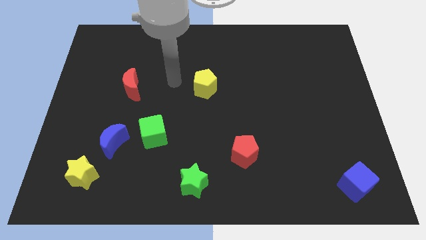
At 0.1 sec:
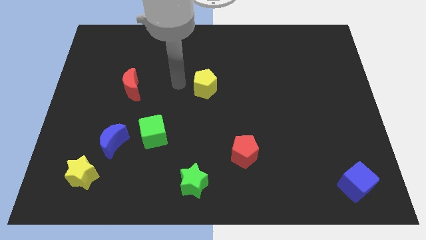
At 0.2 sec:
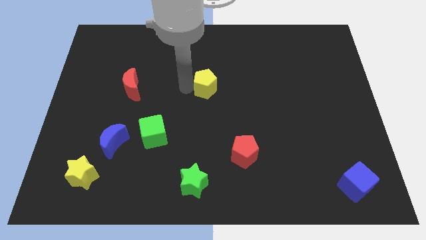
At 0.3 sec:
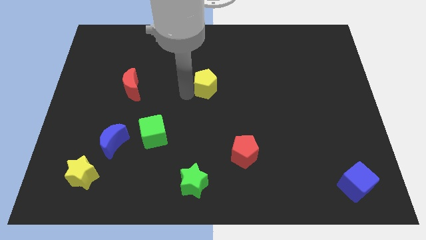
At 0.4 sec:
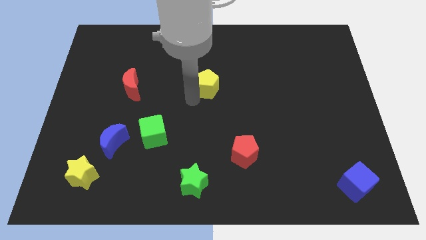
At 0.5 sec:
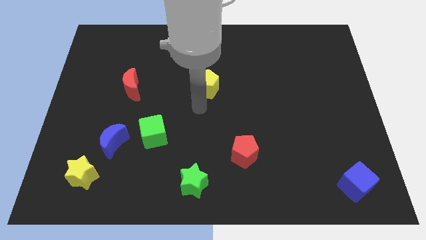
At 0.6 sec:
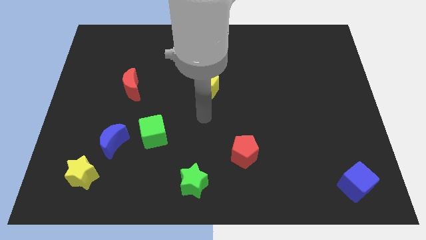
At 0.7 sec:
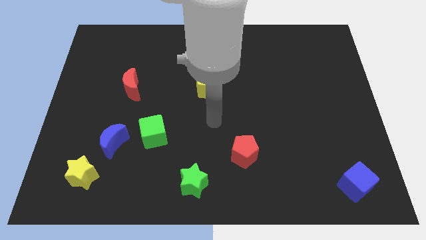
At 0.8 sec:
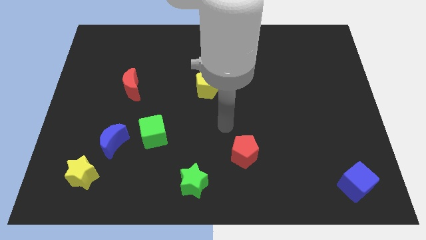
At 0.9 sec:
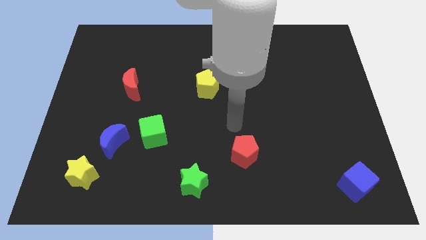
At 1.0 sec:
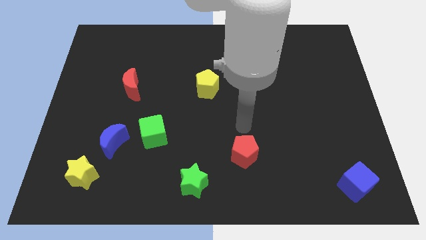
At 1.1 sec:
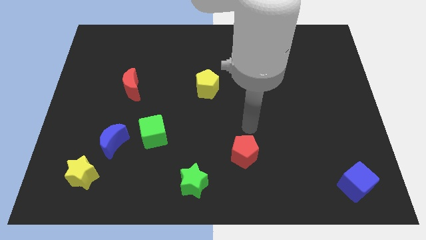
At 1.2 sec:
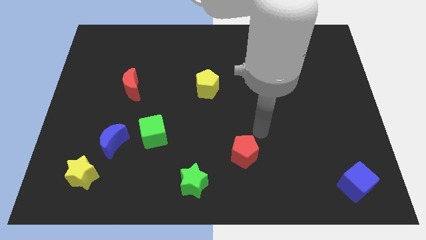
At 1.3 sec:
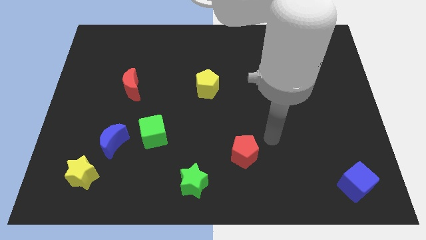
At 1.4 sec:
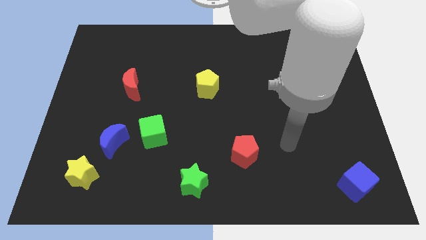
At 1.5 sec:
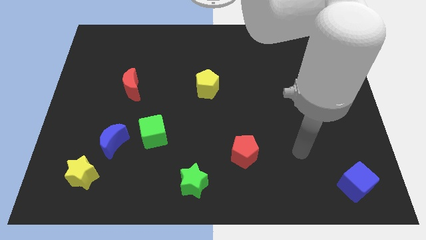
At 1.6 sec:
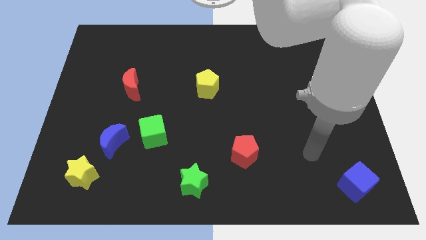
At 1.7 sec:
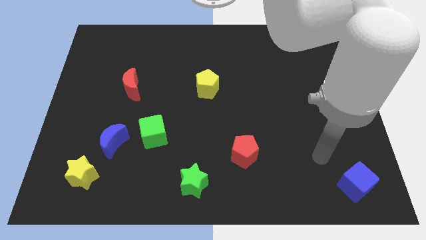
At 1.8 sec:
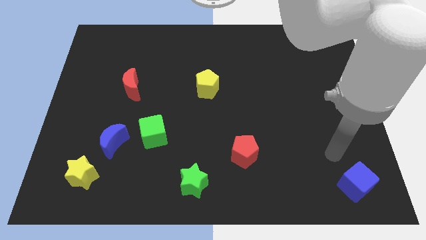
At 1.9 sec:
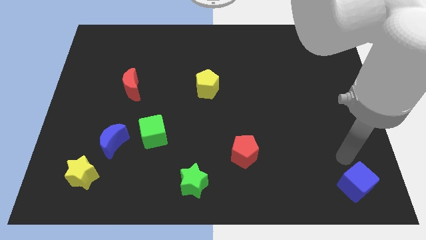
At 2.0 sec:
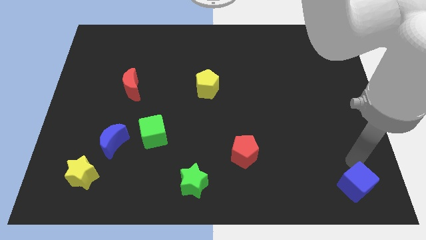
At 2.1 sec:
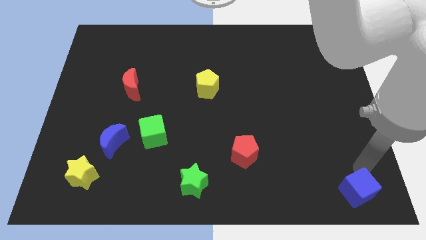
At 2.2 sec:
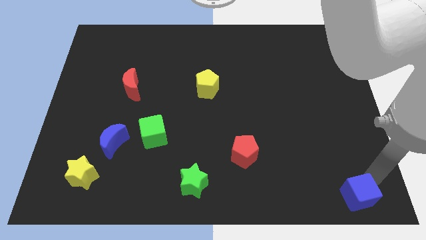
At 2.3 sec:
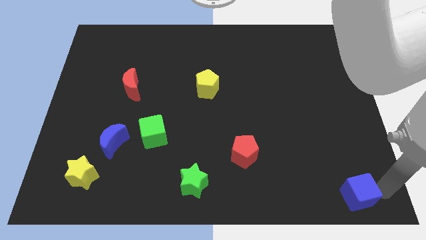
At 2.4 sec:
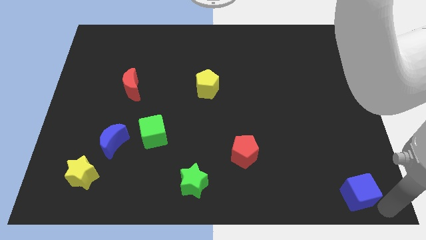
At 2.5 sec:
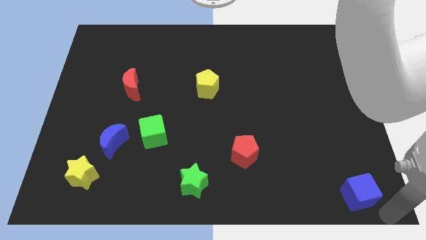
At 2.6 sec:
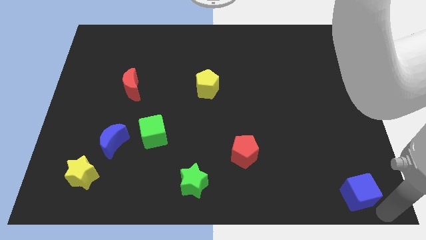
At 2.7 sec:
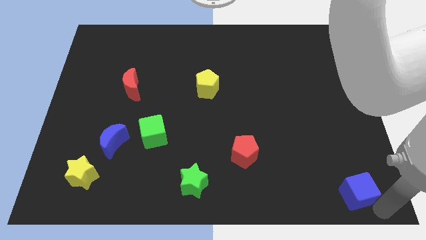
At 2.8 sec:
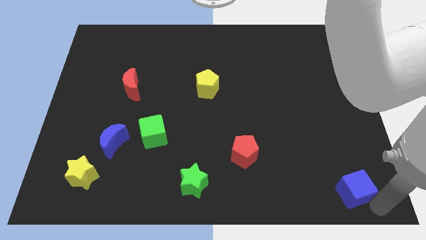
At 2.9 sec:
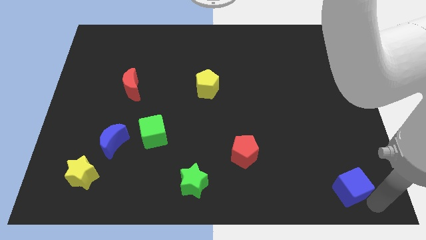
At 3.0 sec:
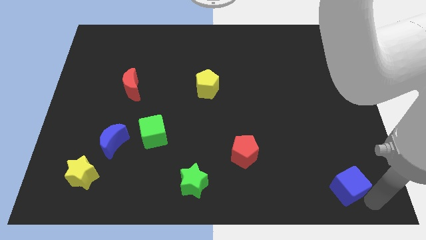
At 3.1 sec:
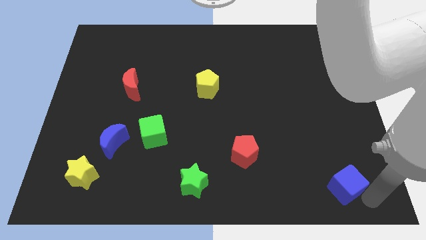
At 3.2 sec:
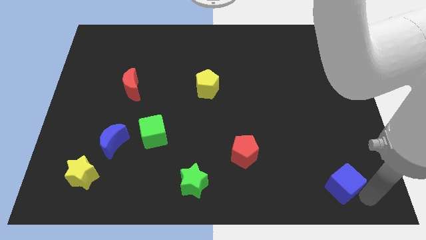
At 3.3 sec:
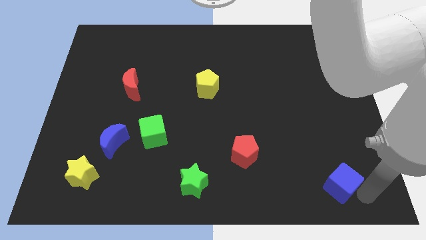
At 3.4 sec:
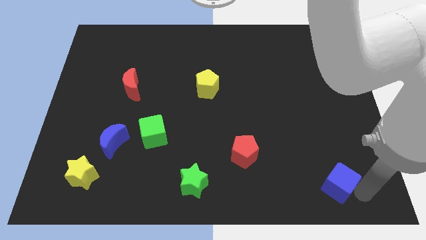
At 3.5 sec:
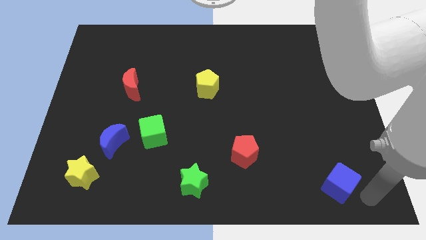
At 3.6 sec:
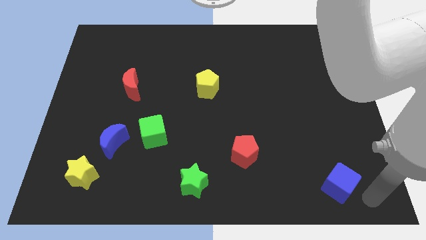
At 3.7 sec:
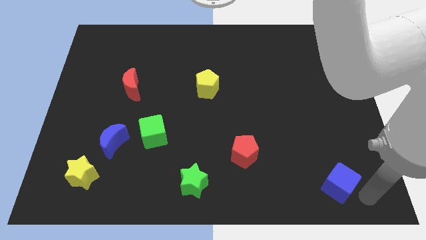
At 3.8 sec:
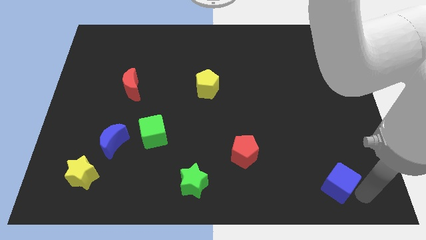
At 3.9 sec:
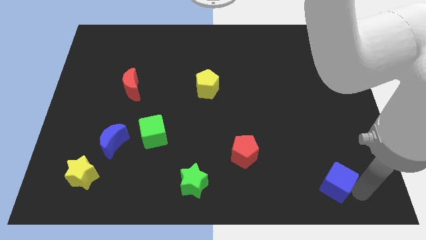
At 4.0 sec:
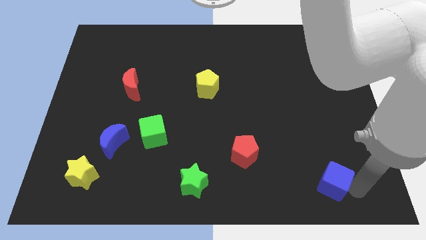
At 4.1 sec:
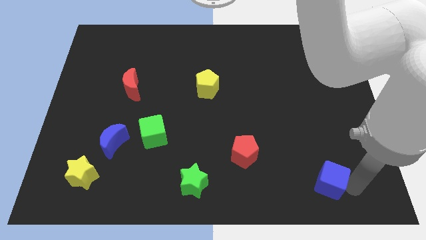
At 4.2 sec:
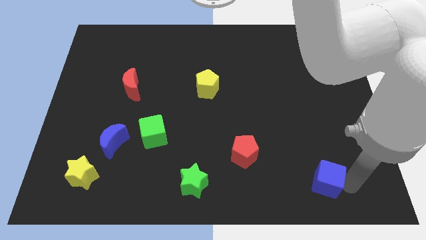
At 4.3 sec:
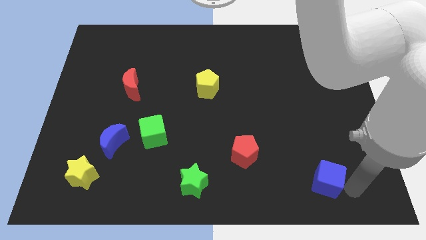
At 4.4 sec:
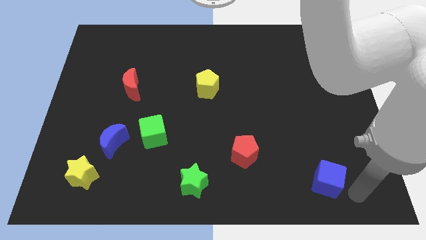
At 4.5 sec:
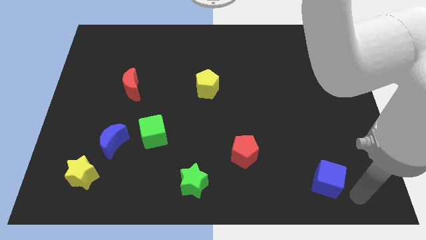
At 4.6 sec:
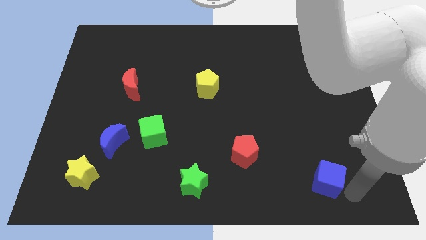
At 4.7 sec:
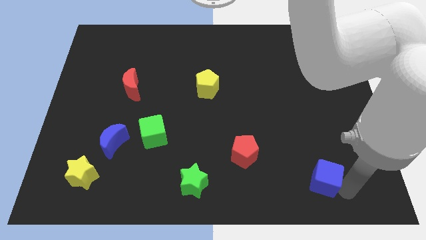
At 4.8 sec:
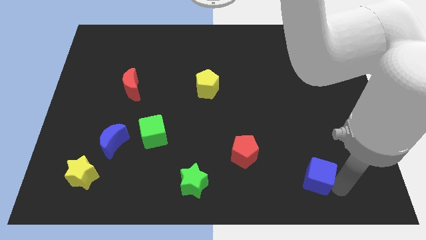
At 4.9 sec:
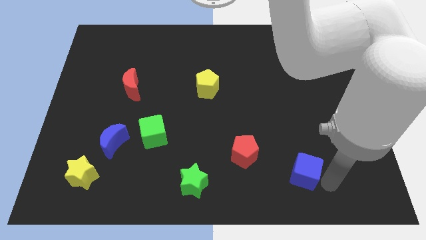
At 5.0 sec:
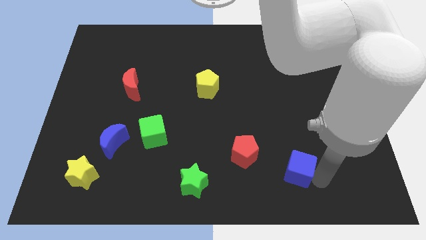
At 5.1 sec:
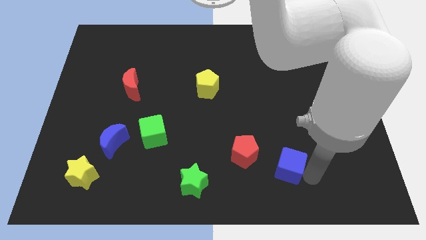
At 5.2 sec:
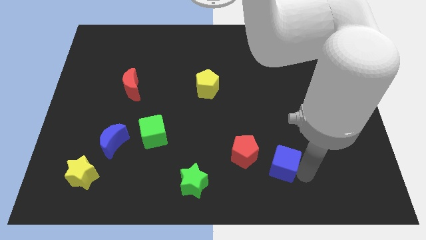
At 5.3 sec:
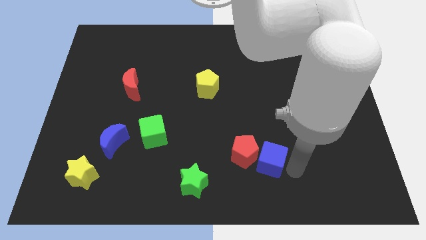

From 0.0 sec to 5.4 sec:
put the blue cube close to the red pentagon

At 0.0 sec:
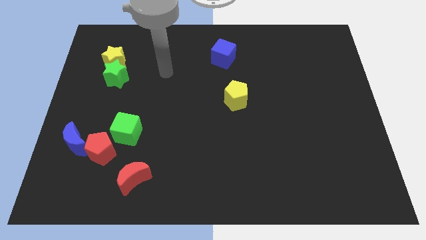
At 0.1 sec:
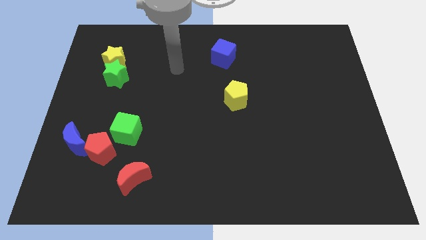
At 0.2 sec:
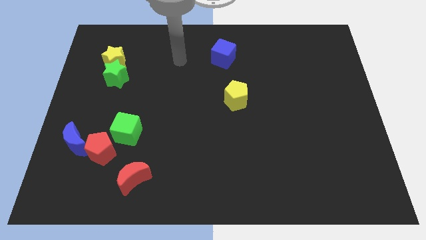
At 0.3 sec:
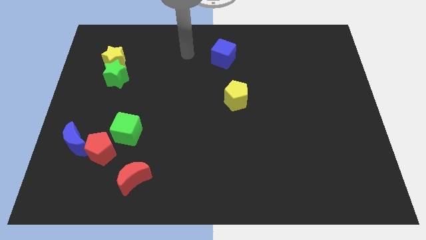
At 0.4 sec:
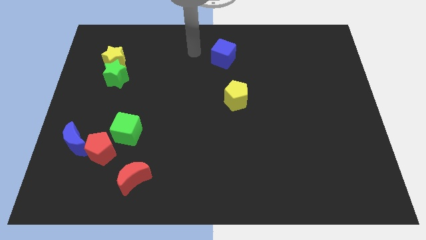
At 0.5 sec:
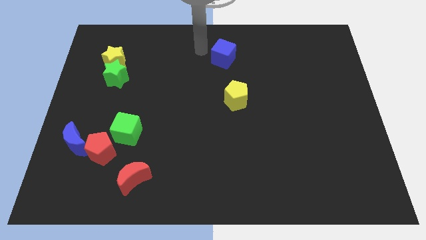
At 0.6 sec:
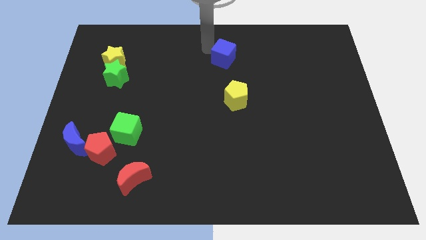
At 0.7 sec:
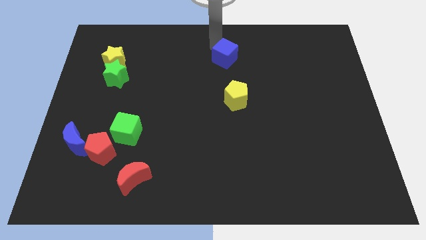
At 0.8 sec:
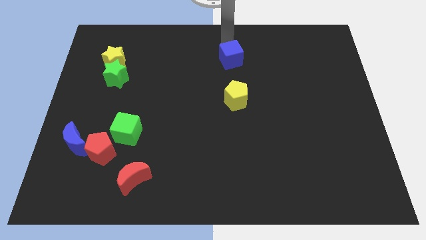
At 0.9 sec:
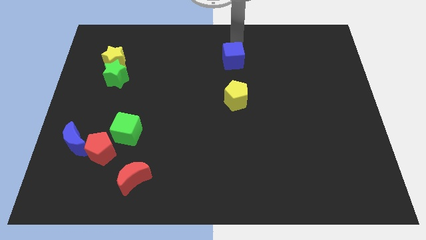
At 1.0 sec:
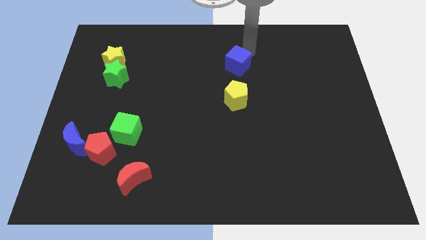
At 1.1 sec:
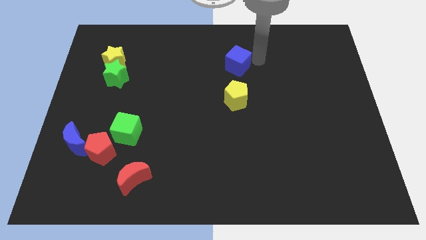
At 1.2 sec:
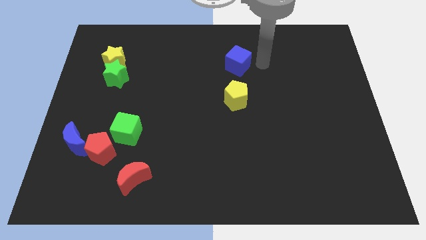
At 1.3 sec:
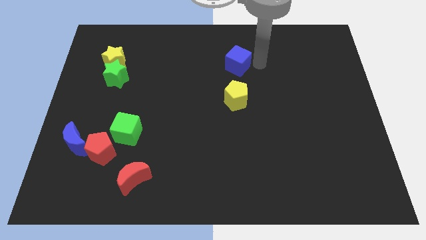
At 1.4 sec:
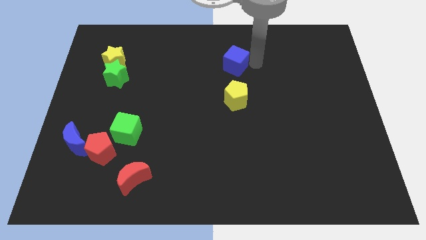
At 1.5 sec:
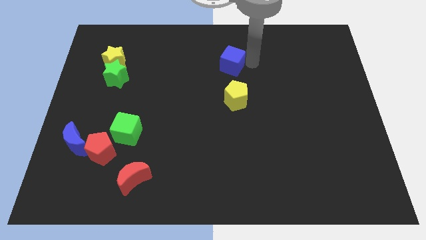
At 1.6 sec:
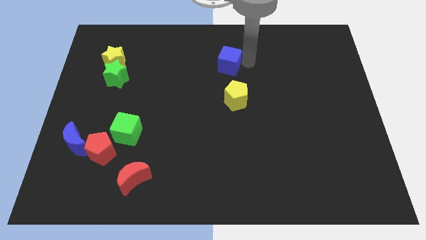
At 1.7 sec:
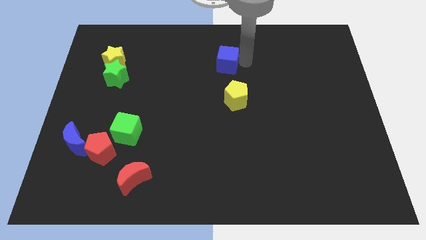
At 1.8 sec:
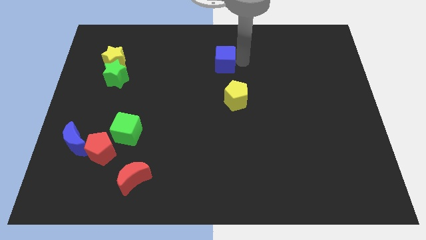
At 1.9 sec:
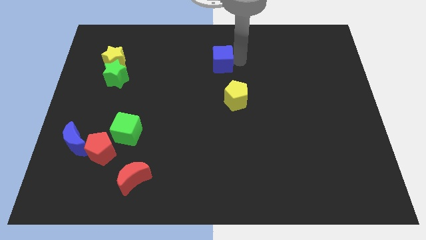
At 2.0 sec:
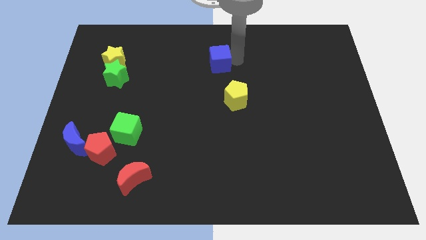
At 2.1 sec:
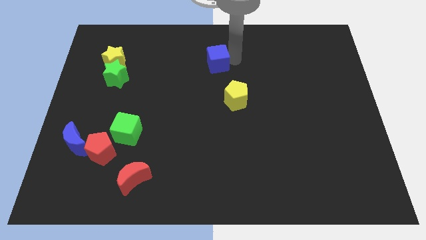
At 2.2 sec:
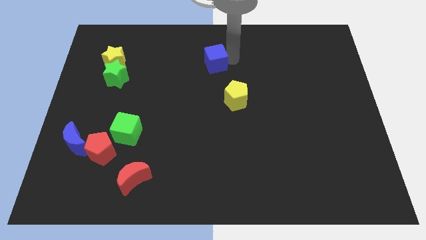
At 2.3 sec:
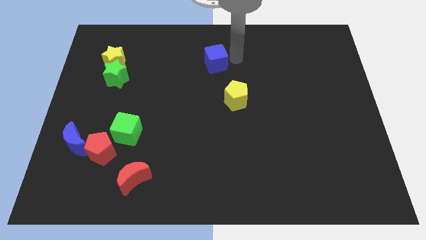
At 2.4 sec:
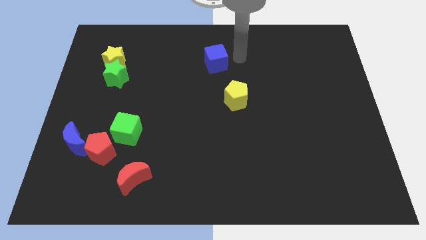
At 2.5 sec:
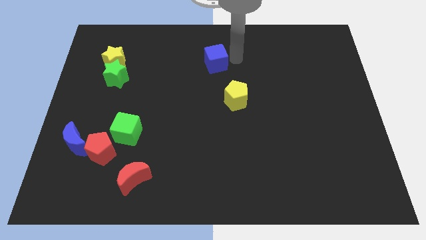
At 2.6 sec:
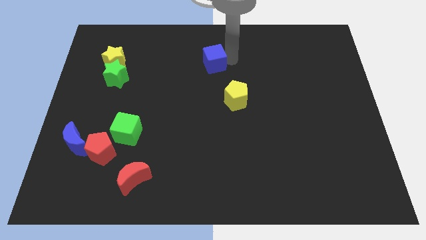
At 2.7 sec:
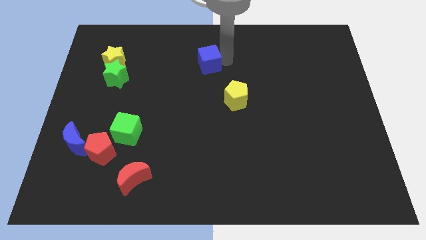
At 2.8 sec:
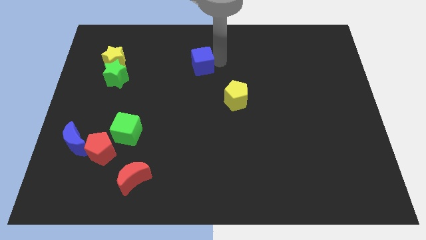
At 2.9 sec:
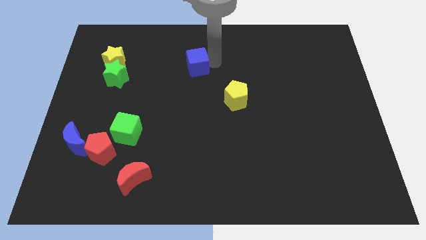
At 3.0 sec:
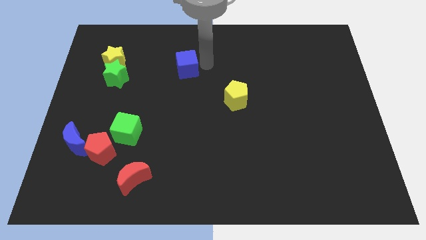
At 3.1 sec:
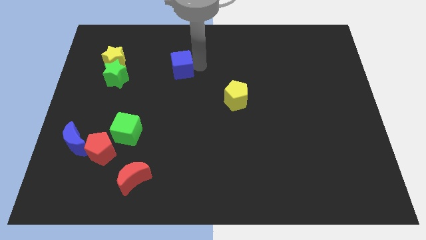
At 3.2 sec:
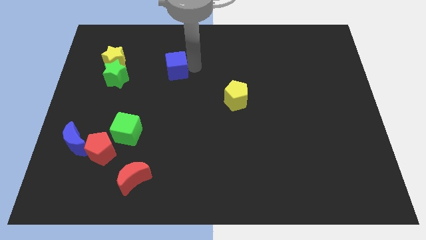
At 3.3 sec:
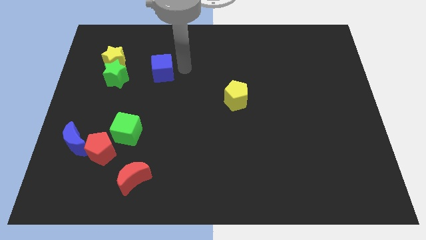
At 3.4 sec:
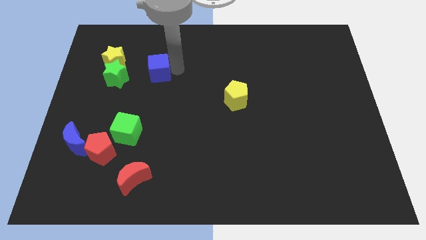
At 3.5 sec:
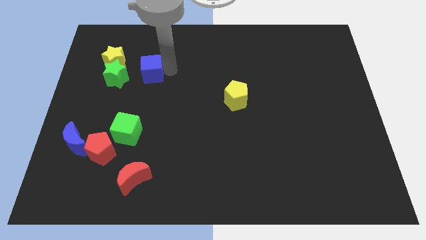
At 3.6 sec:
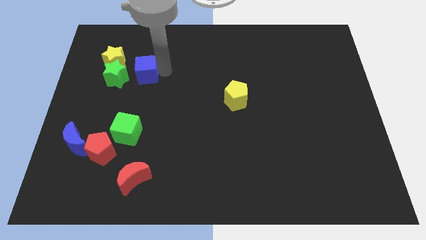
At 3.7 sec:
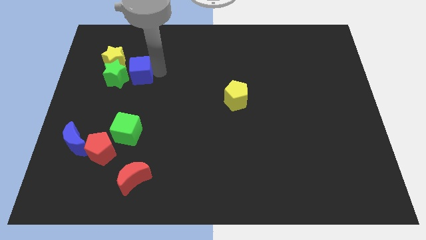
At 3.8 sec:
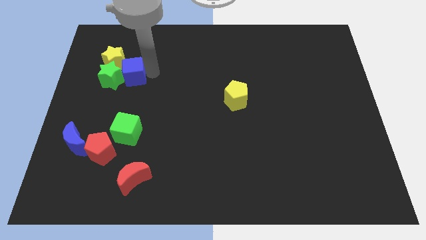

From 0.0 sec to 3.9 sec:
push the blue cube to the green star
